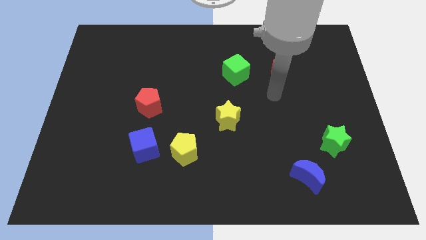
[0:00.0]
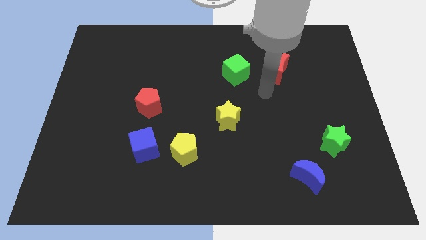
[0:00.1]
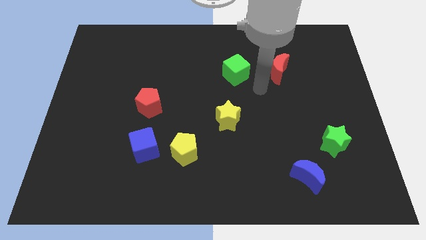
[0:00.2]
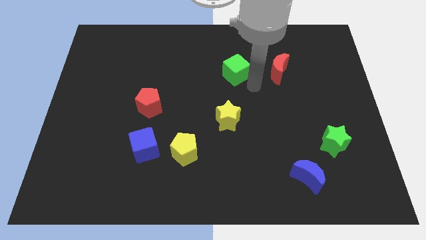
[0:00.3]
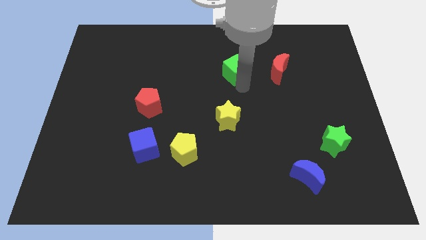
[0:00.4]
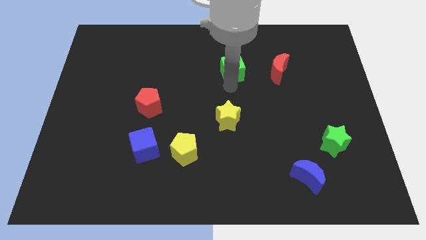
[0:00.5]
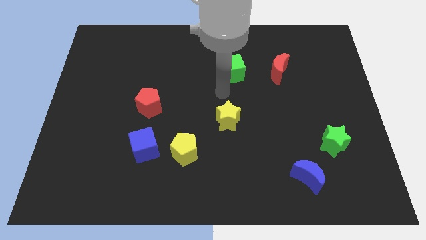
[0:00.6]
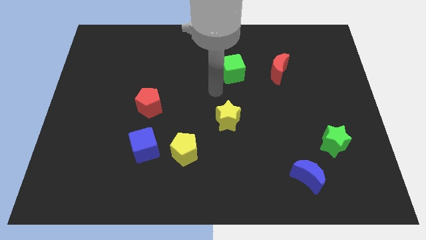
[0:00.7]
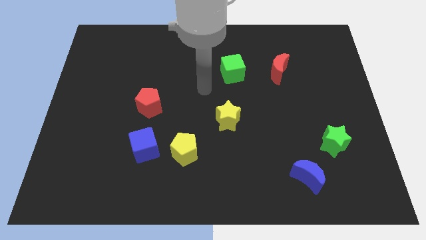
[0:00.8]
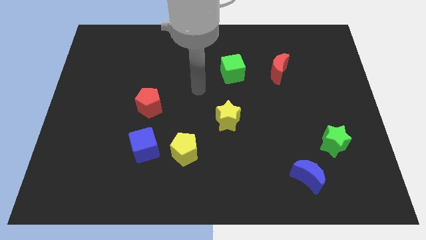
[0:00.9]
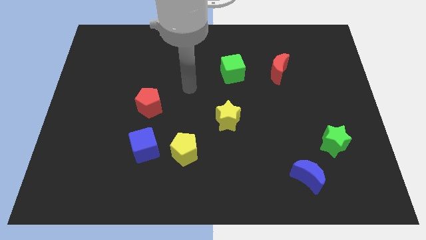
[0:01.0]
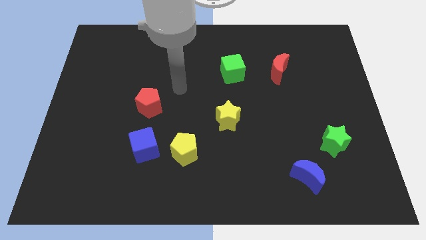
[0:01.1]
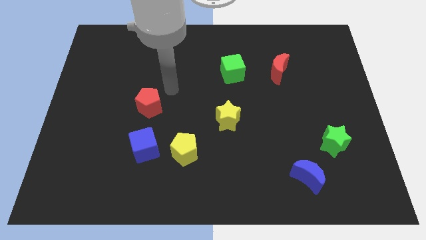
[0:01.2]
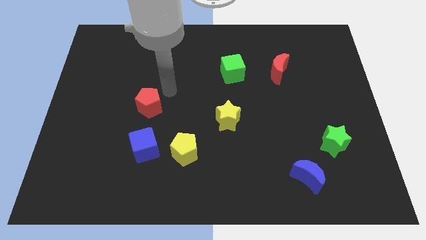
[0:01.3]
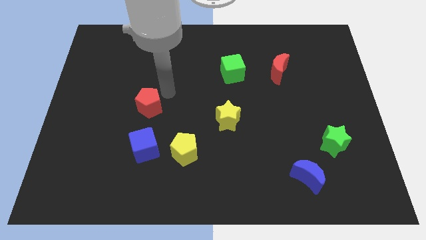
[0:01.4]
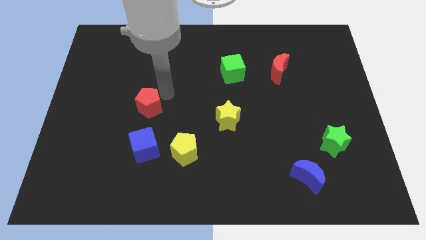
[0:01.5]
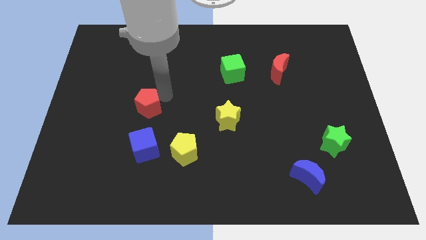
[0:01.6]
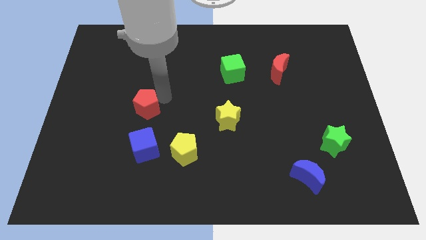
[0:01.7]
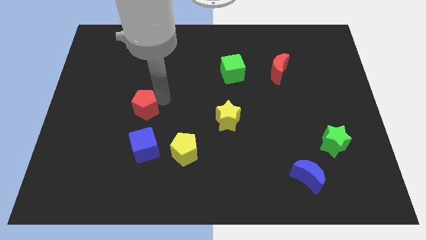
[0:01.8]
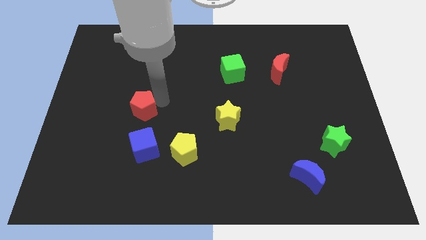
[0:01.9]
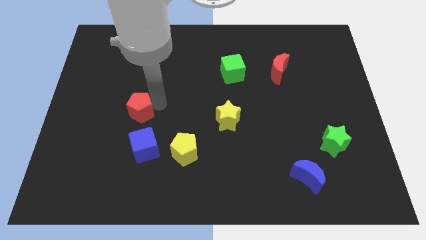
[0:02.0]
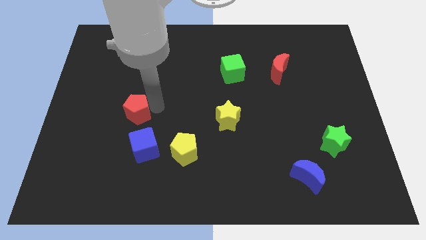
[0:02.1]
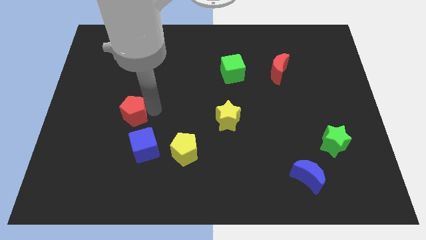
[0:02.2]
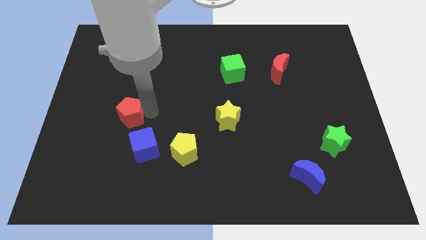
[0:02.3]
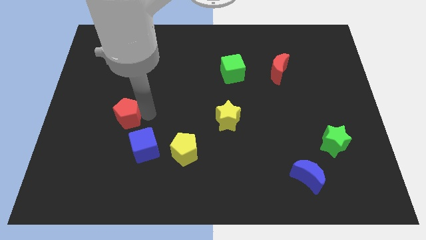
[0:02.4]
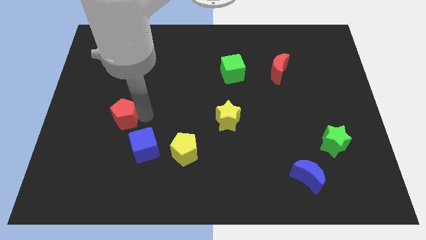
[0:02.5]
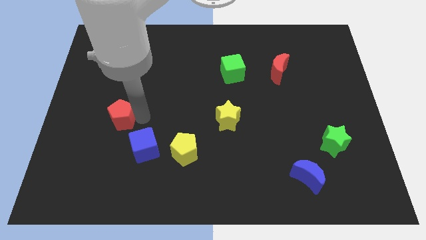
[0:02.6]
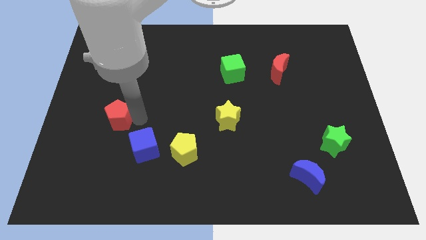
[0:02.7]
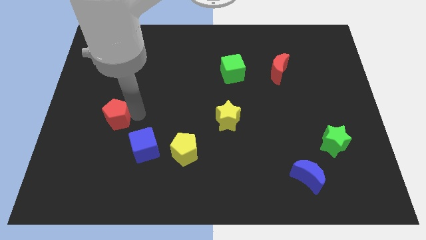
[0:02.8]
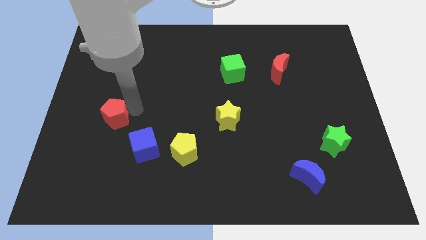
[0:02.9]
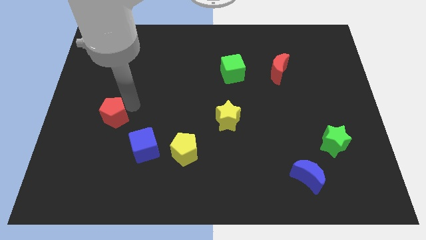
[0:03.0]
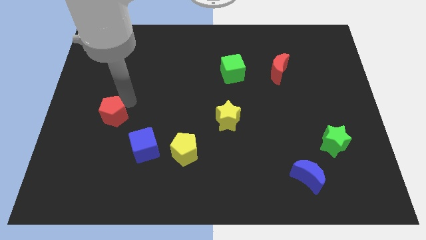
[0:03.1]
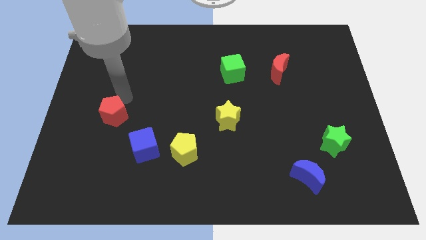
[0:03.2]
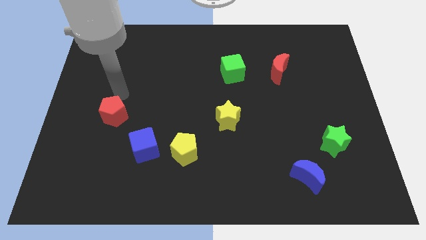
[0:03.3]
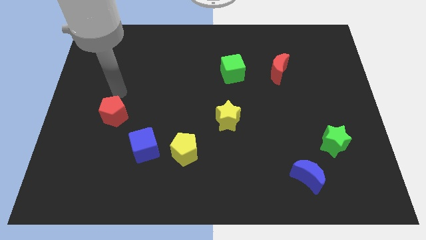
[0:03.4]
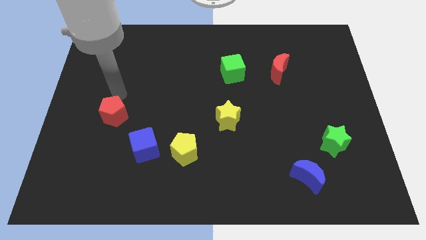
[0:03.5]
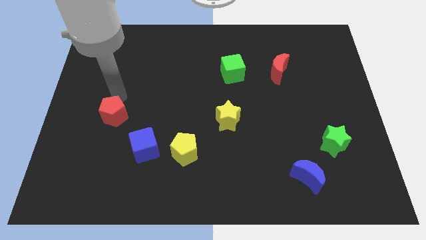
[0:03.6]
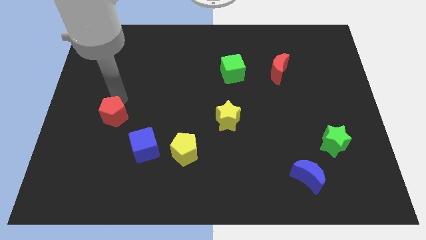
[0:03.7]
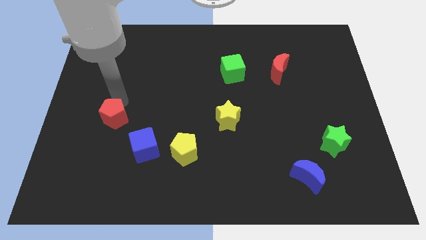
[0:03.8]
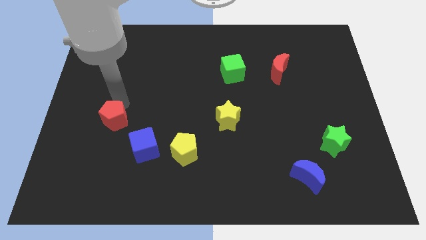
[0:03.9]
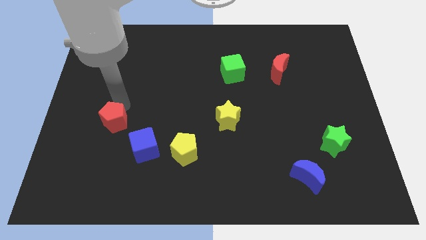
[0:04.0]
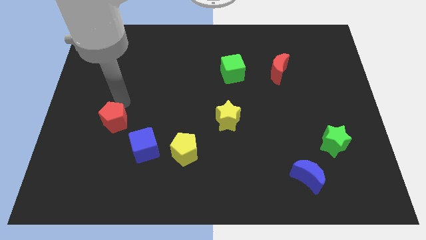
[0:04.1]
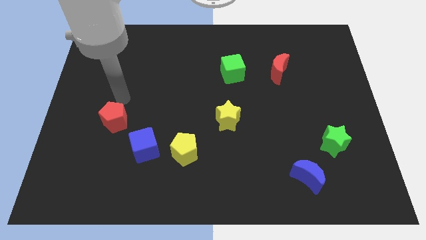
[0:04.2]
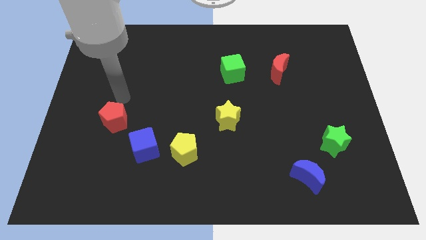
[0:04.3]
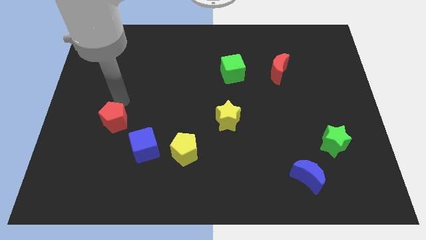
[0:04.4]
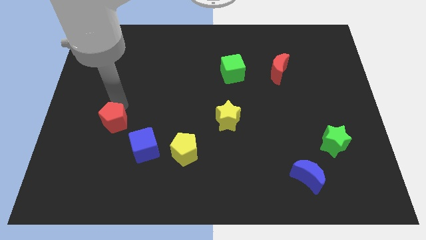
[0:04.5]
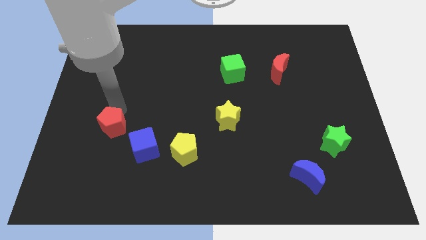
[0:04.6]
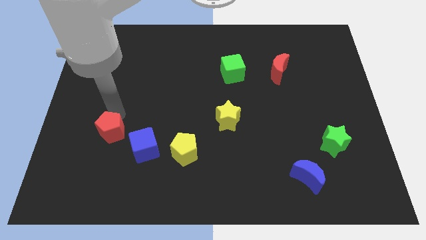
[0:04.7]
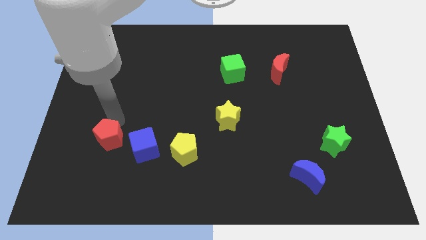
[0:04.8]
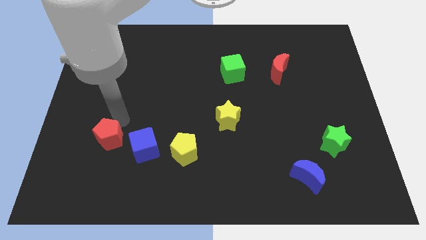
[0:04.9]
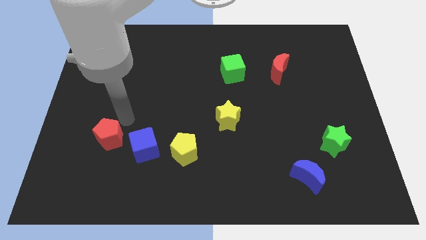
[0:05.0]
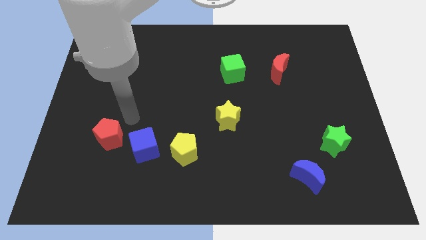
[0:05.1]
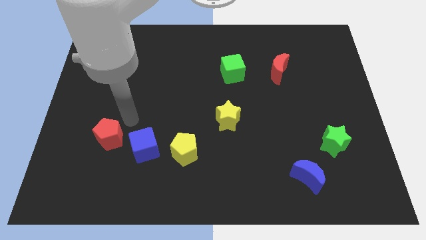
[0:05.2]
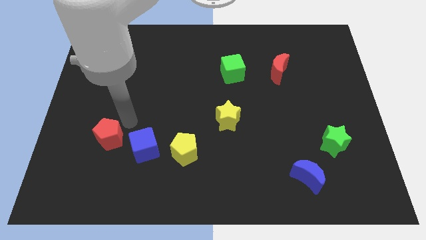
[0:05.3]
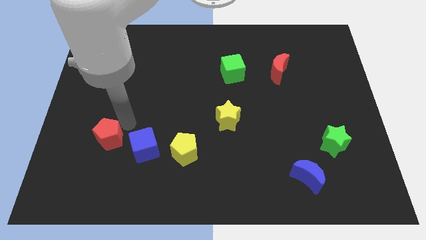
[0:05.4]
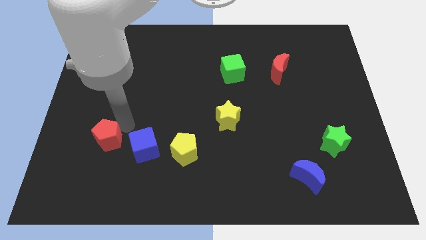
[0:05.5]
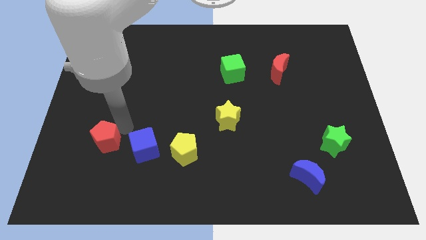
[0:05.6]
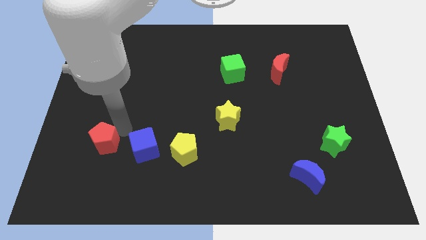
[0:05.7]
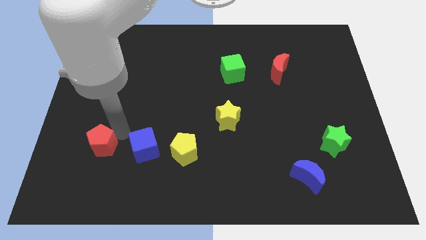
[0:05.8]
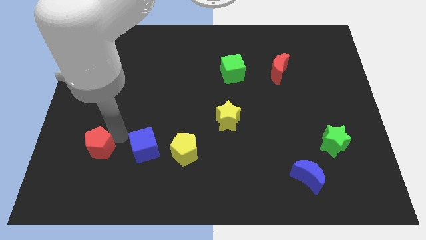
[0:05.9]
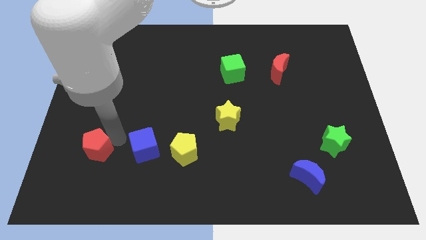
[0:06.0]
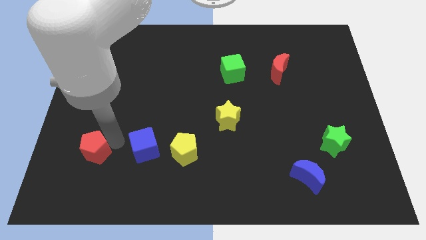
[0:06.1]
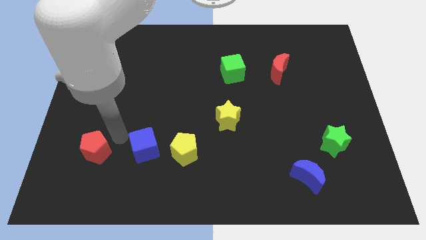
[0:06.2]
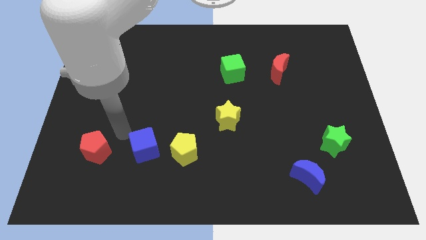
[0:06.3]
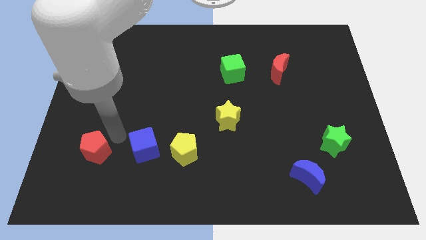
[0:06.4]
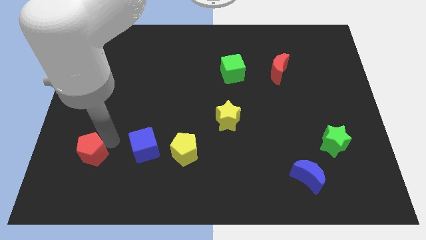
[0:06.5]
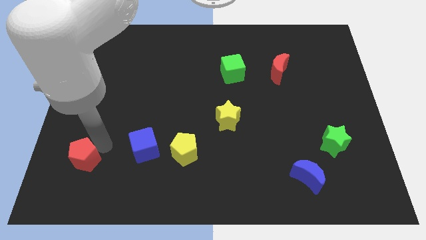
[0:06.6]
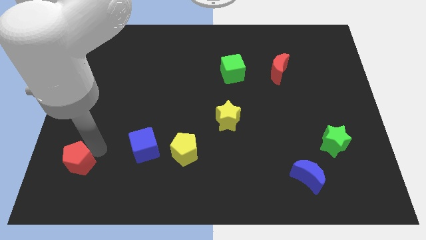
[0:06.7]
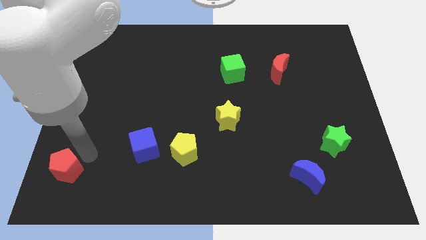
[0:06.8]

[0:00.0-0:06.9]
put the red pentagon to the bottom left
